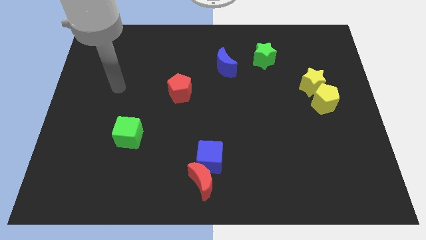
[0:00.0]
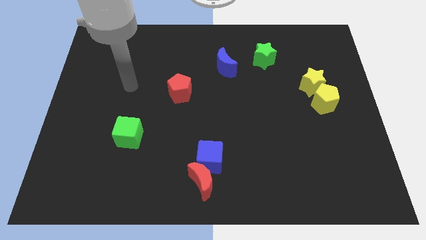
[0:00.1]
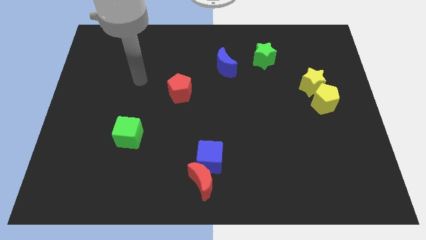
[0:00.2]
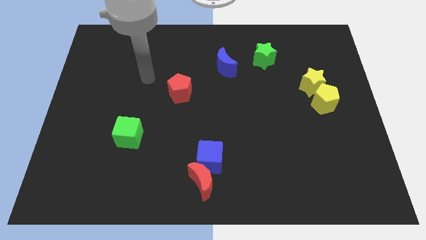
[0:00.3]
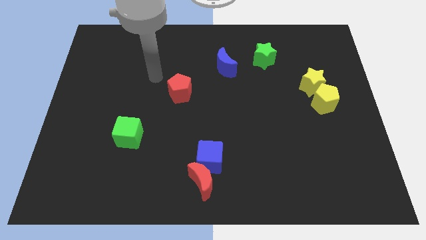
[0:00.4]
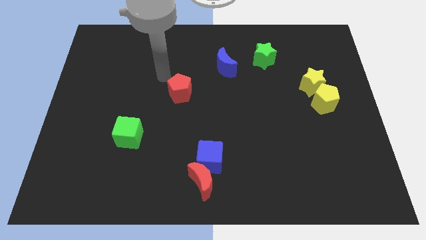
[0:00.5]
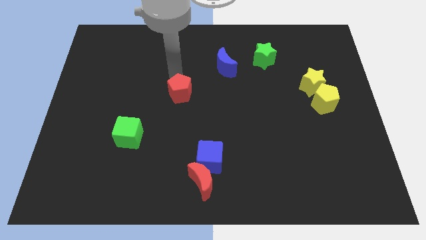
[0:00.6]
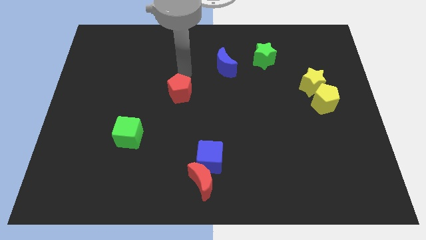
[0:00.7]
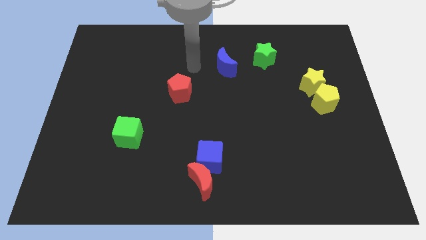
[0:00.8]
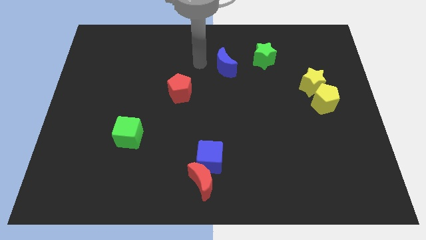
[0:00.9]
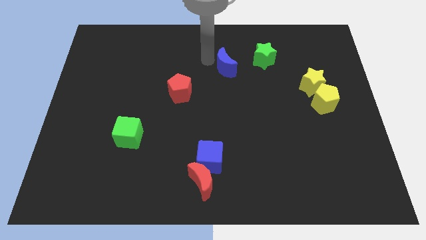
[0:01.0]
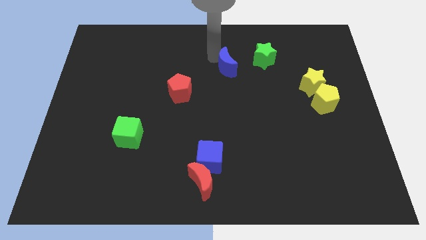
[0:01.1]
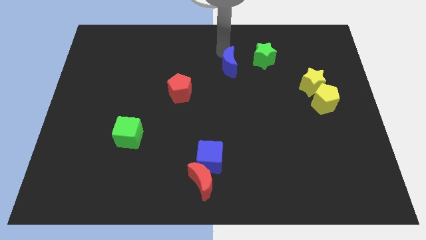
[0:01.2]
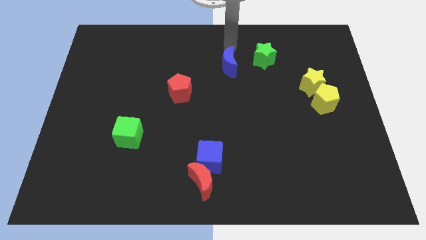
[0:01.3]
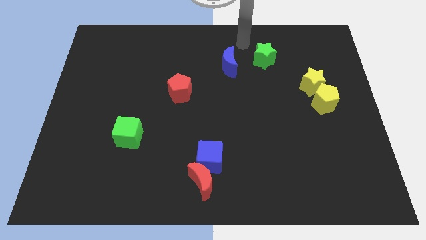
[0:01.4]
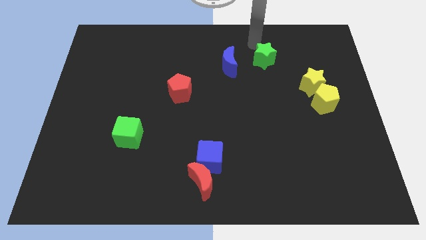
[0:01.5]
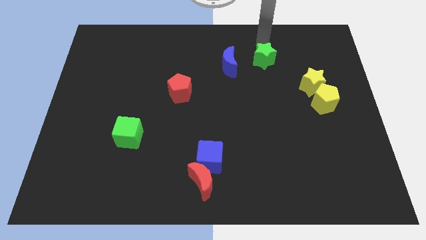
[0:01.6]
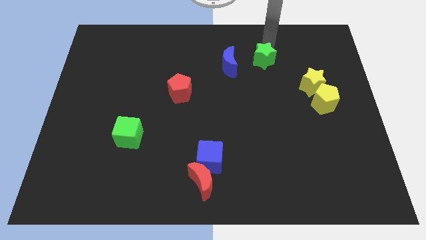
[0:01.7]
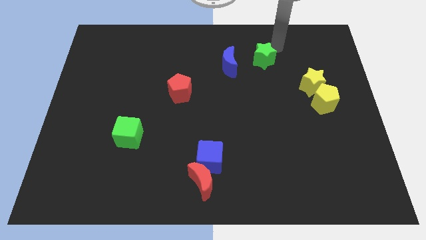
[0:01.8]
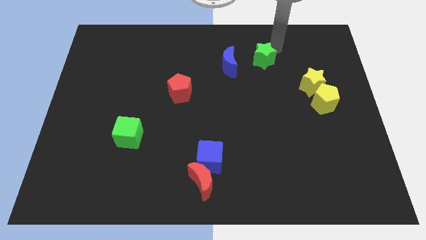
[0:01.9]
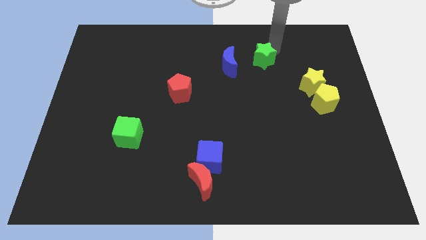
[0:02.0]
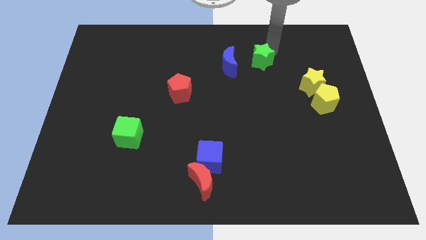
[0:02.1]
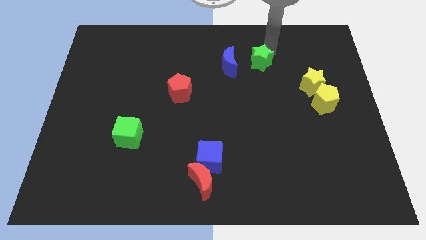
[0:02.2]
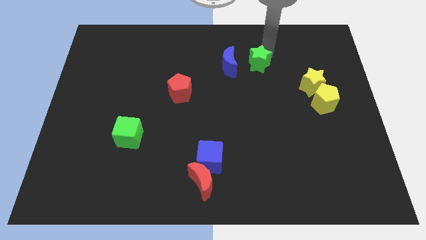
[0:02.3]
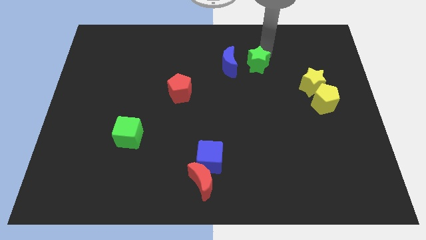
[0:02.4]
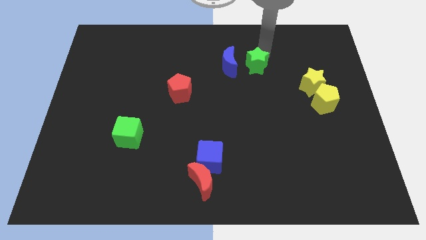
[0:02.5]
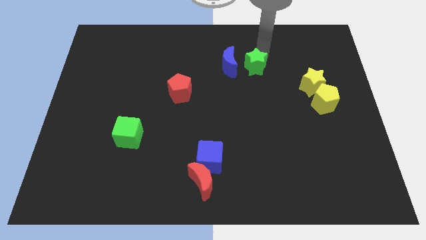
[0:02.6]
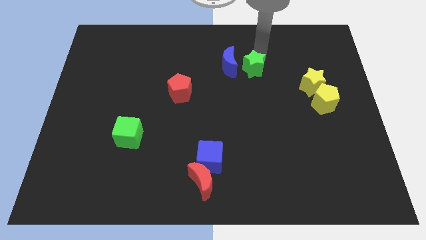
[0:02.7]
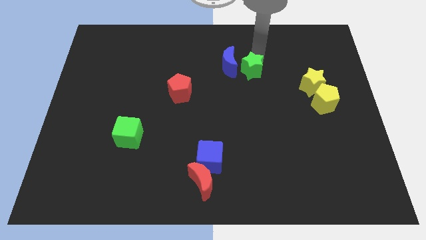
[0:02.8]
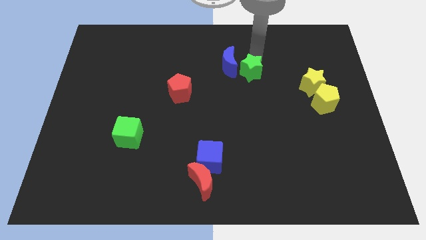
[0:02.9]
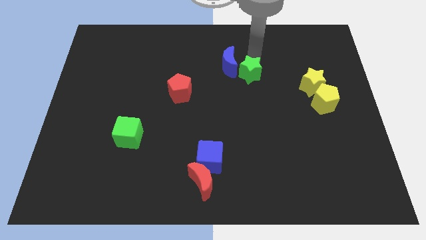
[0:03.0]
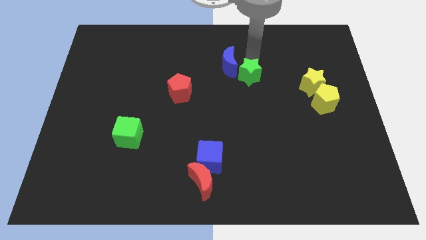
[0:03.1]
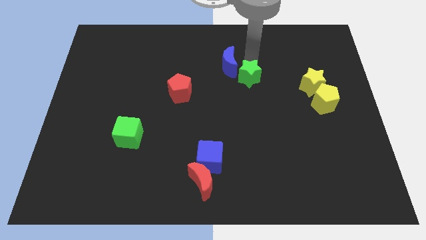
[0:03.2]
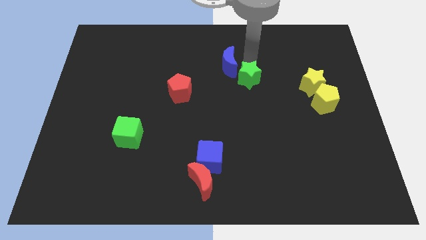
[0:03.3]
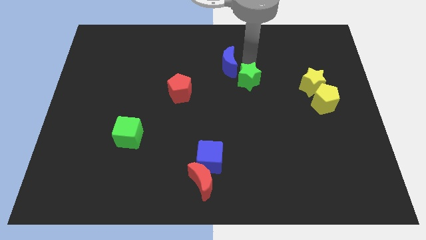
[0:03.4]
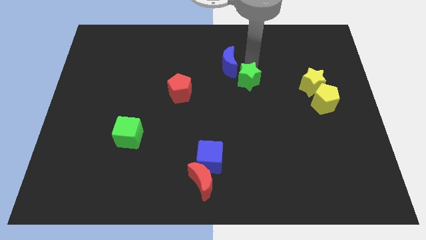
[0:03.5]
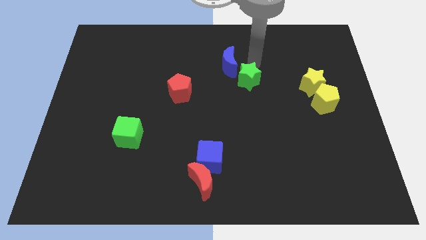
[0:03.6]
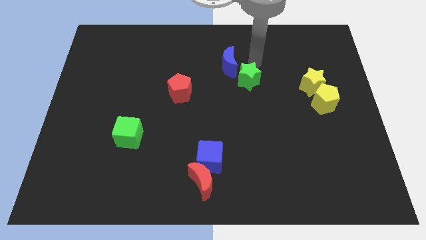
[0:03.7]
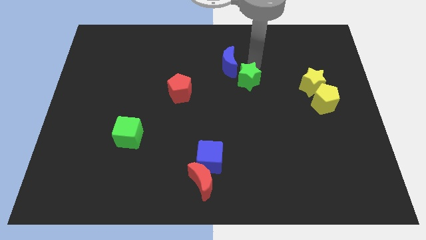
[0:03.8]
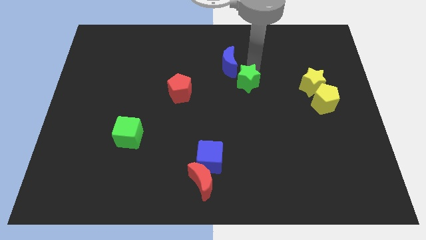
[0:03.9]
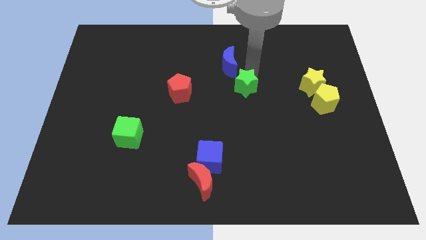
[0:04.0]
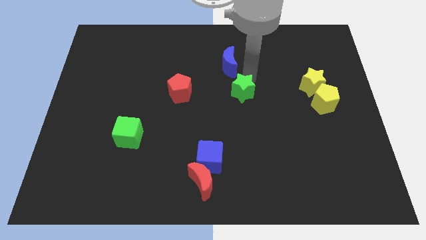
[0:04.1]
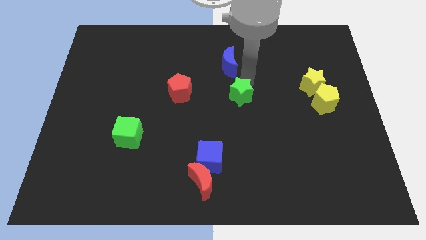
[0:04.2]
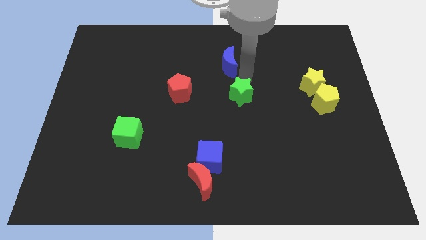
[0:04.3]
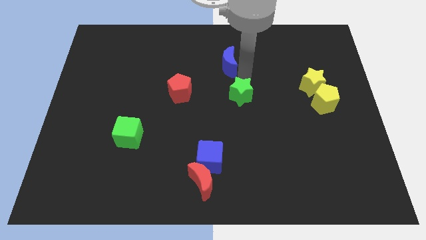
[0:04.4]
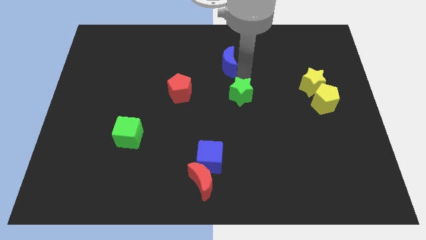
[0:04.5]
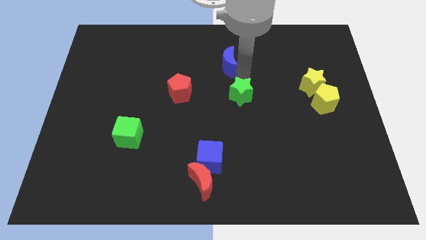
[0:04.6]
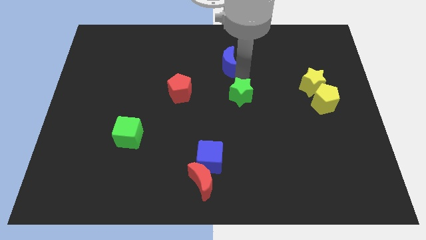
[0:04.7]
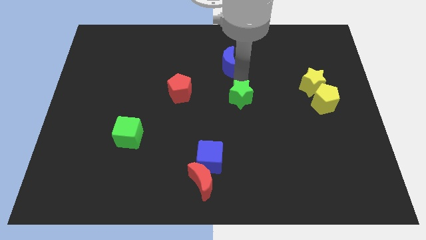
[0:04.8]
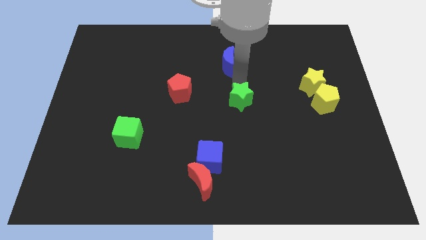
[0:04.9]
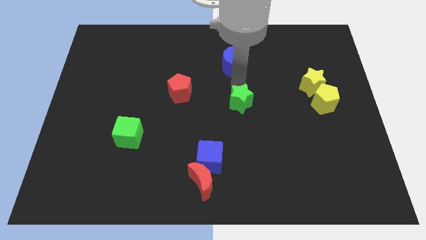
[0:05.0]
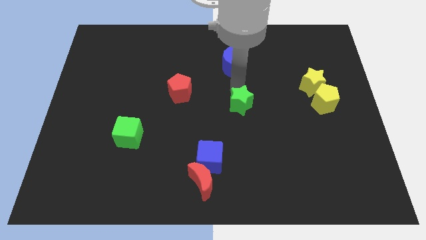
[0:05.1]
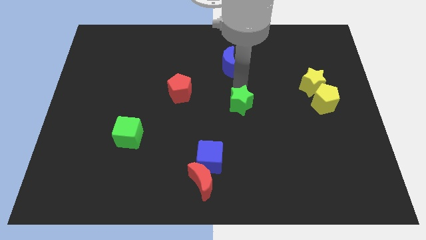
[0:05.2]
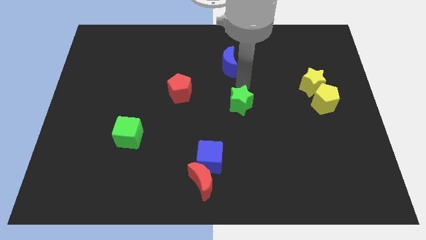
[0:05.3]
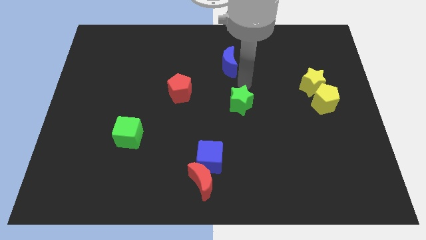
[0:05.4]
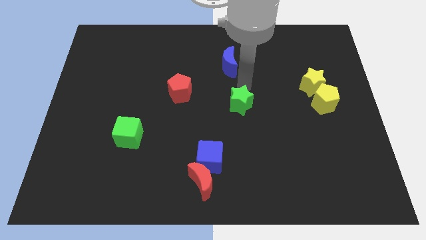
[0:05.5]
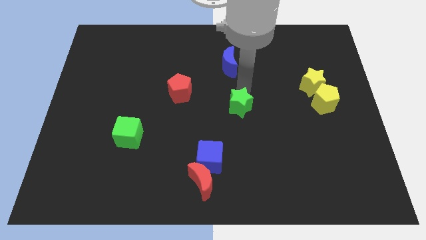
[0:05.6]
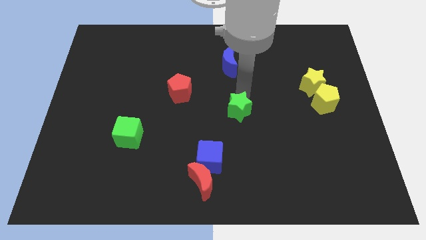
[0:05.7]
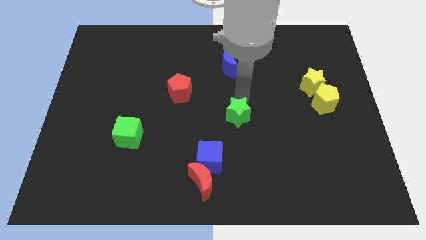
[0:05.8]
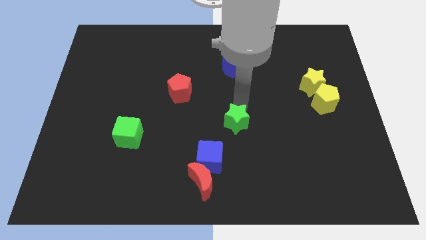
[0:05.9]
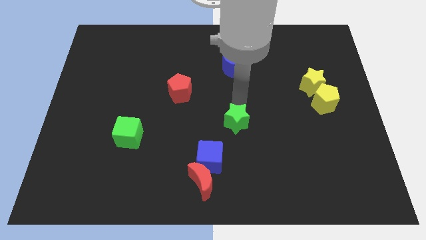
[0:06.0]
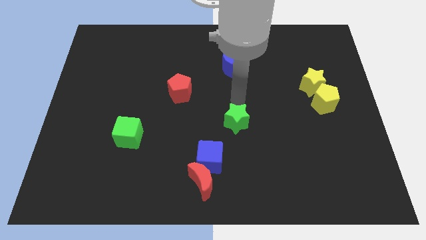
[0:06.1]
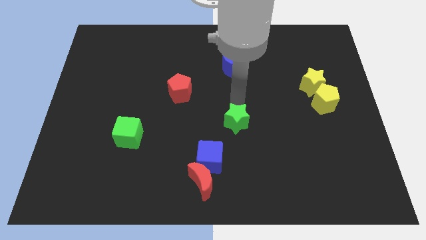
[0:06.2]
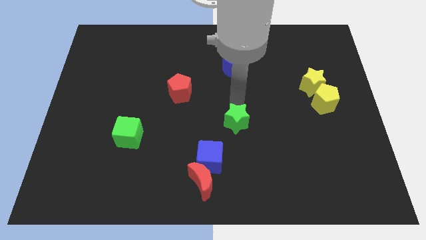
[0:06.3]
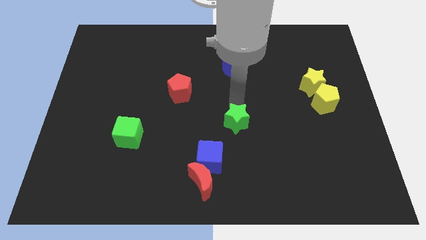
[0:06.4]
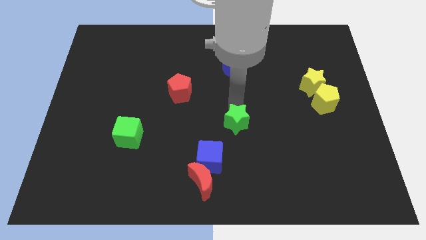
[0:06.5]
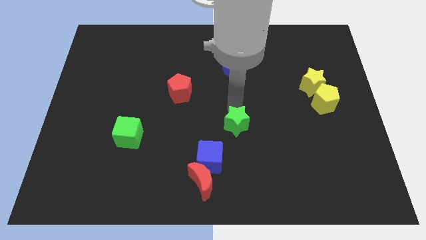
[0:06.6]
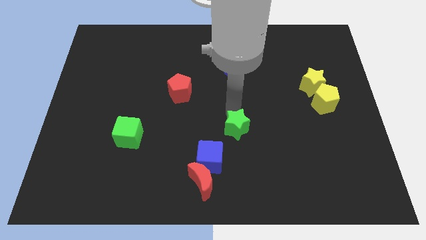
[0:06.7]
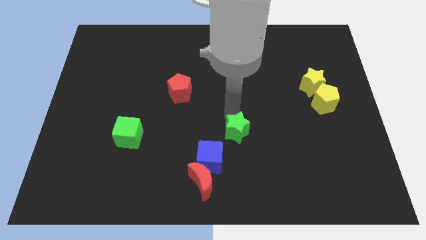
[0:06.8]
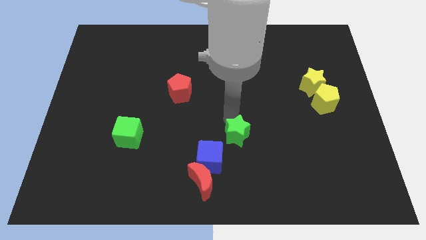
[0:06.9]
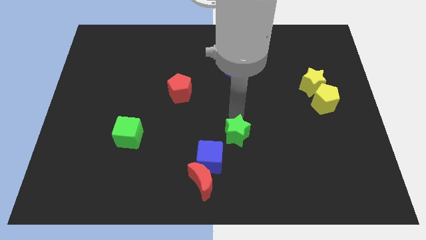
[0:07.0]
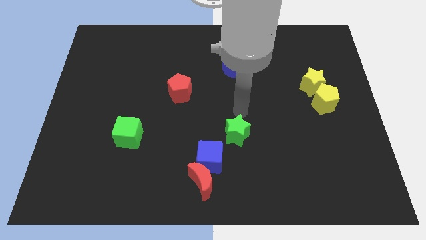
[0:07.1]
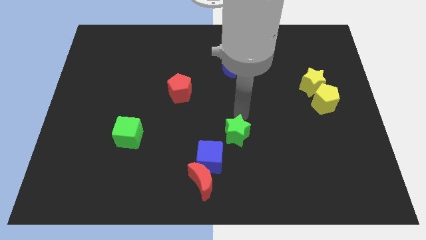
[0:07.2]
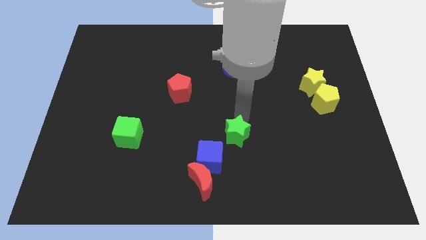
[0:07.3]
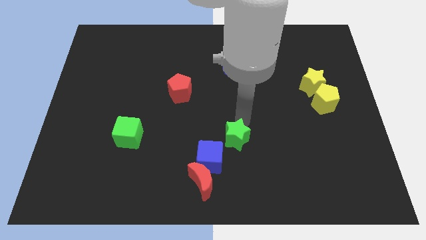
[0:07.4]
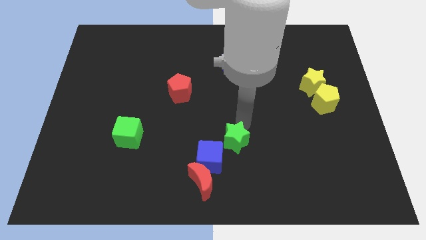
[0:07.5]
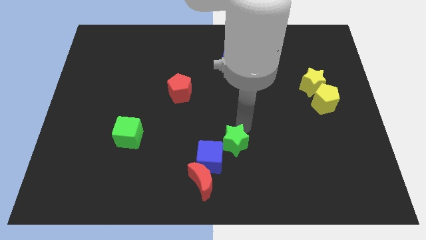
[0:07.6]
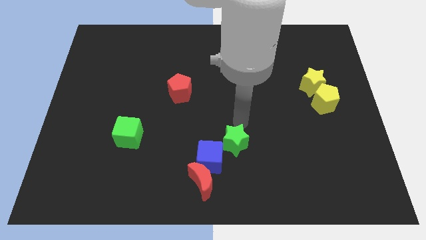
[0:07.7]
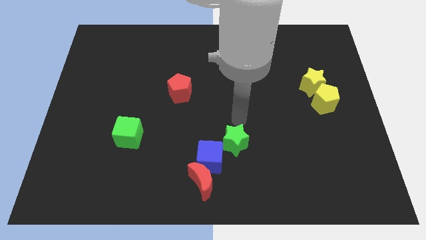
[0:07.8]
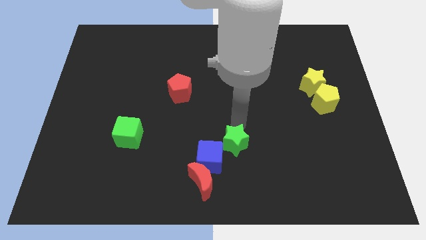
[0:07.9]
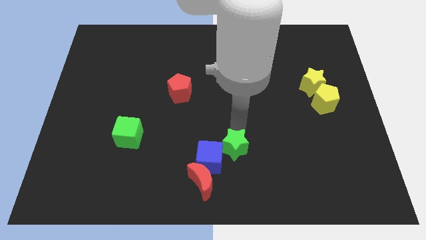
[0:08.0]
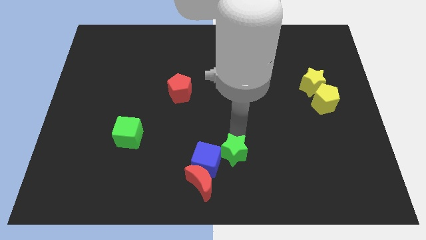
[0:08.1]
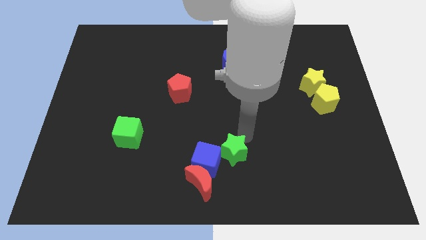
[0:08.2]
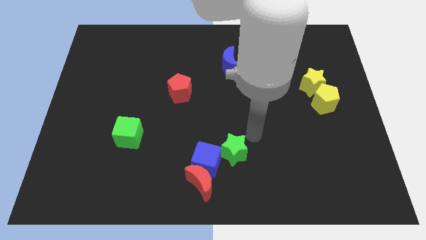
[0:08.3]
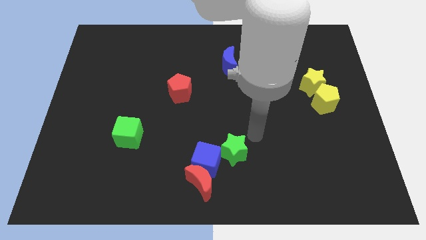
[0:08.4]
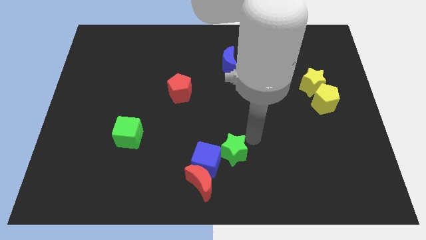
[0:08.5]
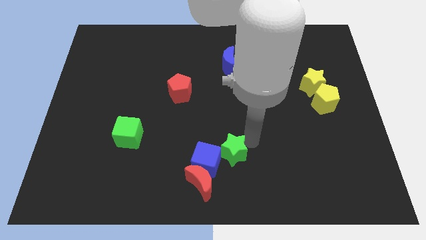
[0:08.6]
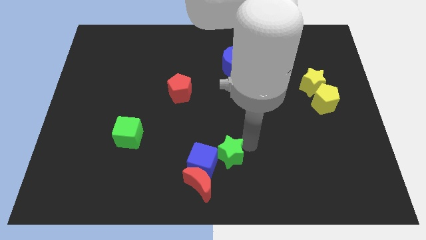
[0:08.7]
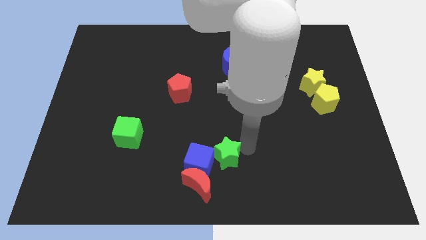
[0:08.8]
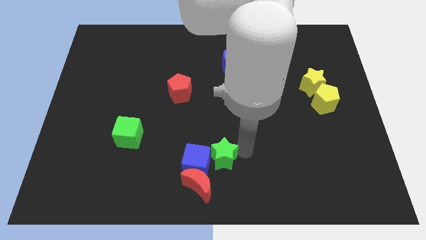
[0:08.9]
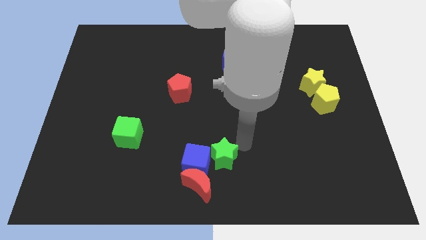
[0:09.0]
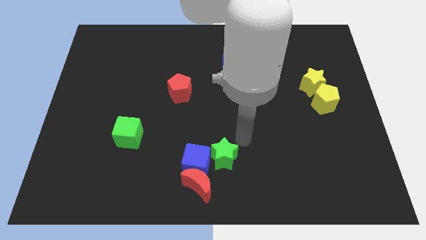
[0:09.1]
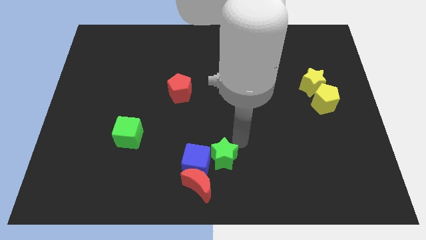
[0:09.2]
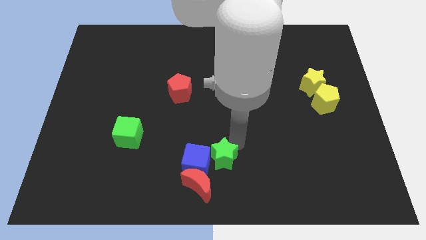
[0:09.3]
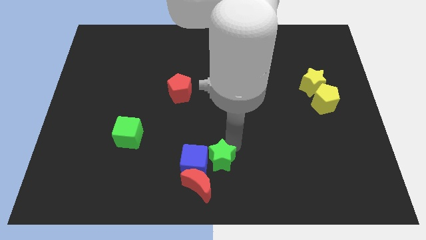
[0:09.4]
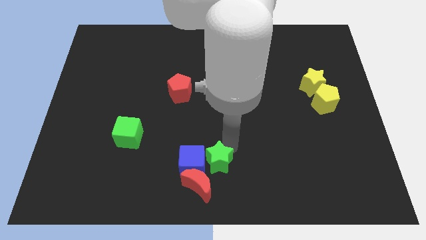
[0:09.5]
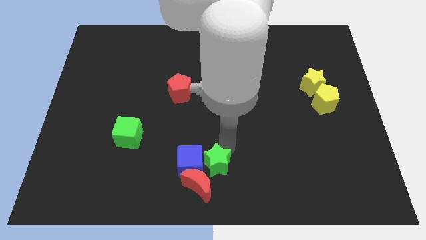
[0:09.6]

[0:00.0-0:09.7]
push the green star towards the red moon
